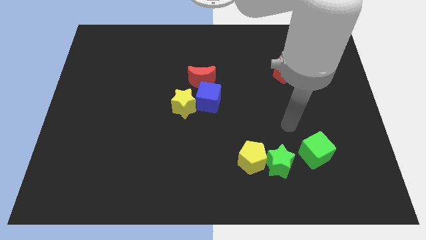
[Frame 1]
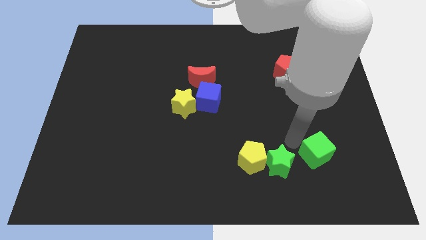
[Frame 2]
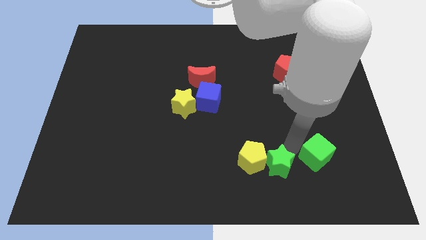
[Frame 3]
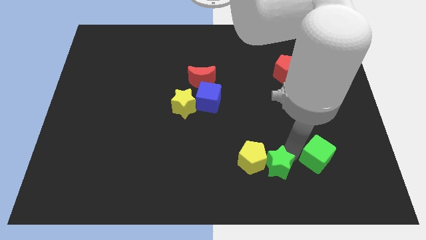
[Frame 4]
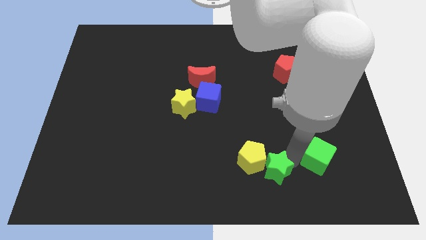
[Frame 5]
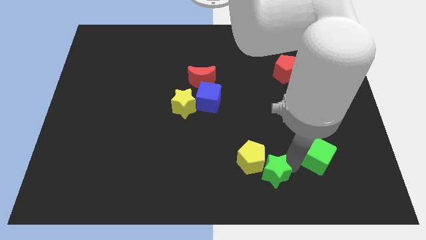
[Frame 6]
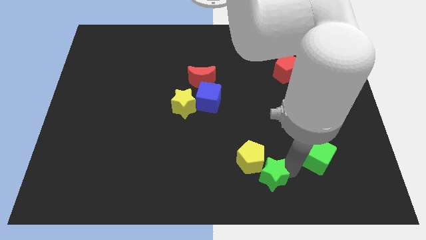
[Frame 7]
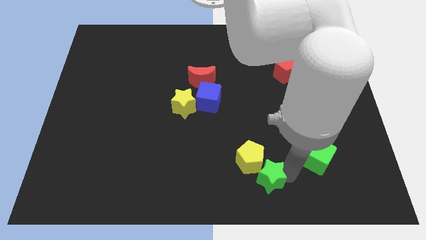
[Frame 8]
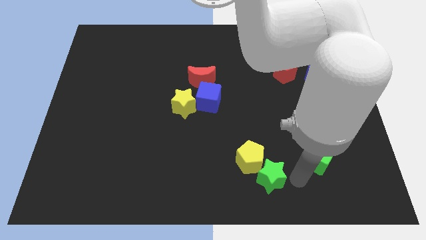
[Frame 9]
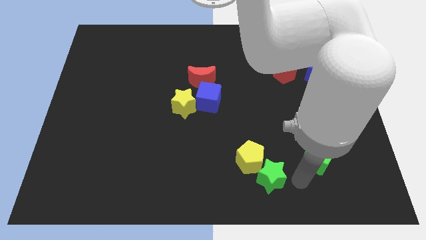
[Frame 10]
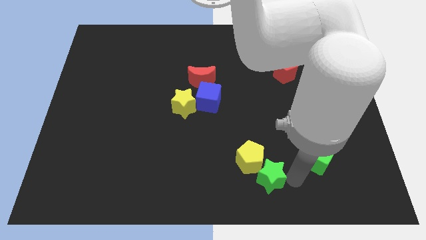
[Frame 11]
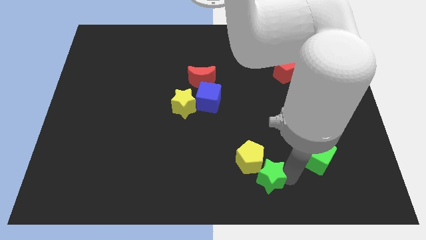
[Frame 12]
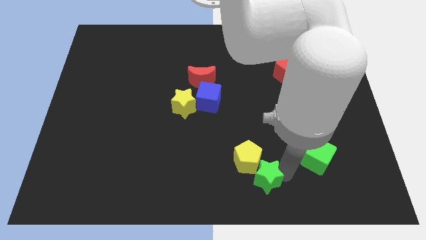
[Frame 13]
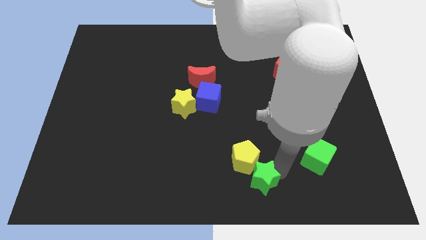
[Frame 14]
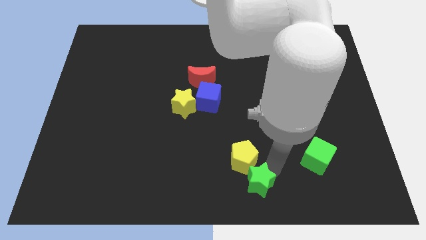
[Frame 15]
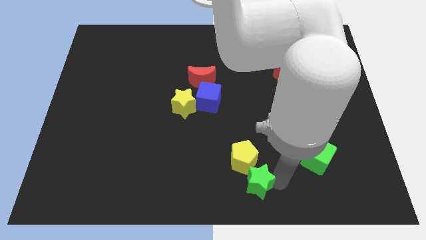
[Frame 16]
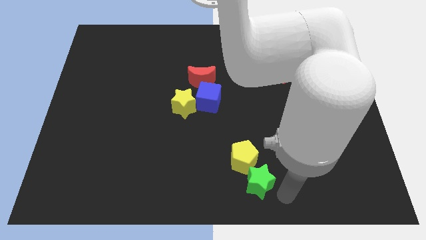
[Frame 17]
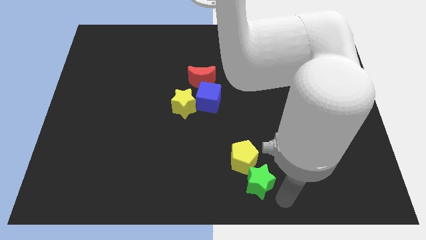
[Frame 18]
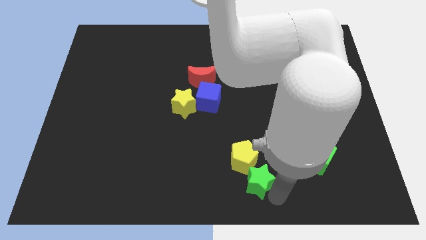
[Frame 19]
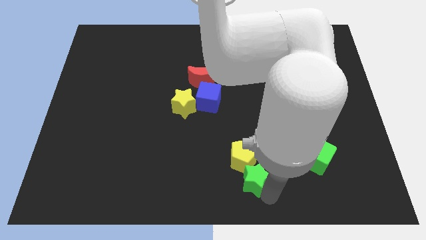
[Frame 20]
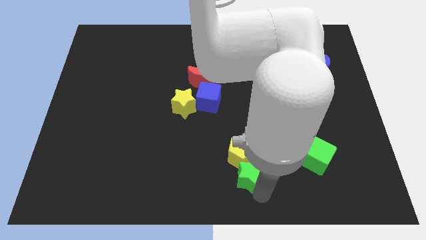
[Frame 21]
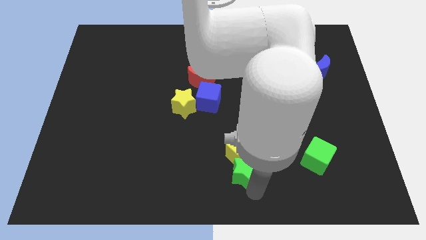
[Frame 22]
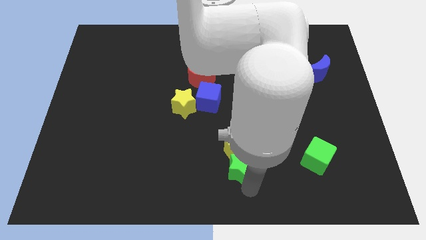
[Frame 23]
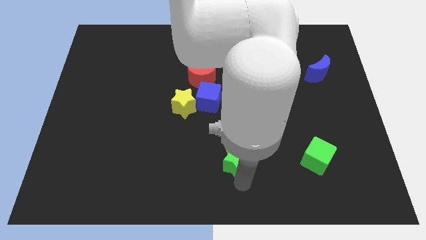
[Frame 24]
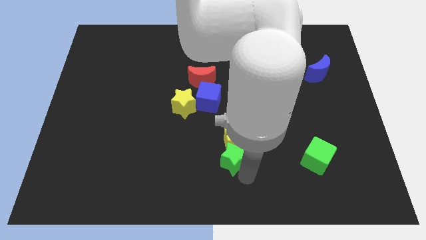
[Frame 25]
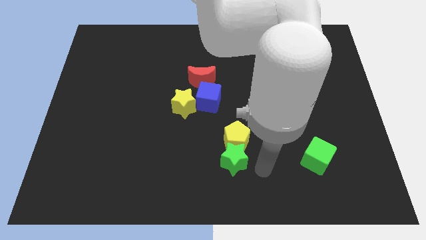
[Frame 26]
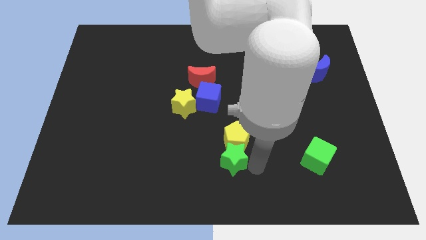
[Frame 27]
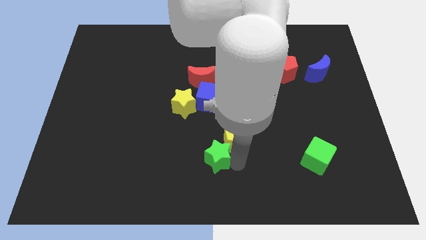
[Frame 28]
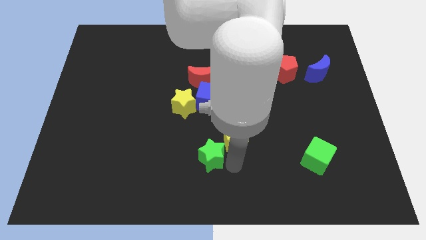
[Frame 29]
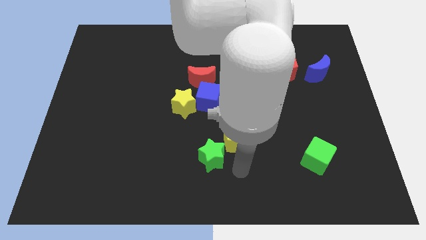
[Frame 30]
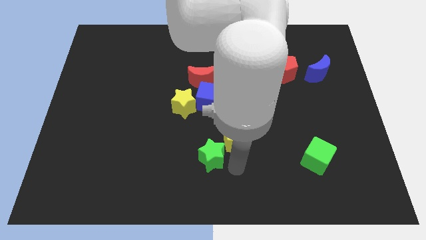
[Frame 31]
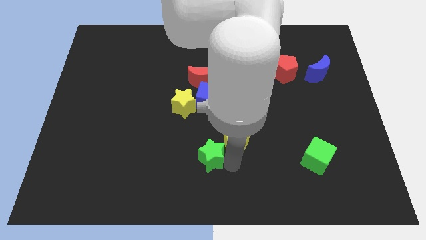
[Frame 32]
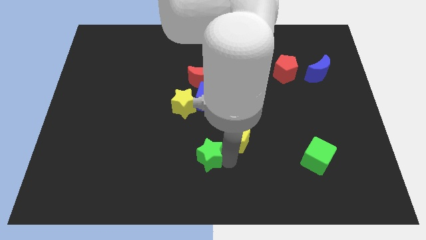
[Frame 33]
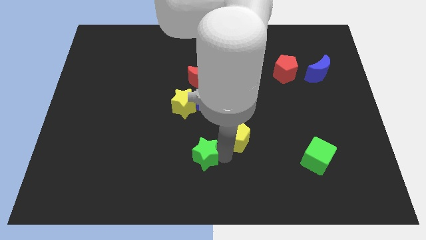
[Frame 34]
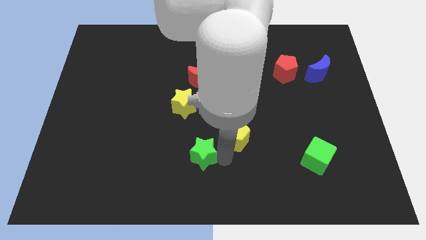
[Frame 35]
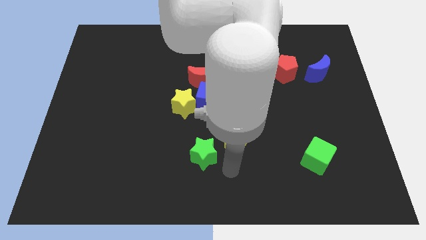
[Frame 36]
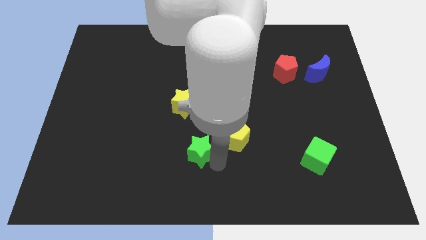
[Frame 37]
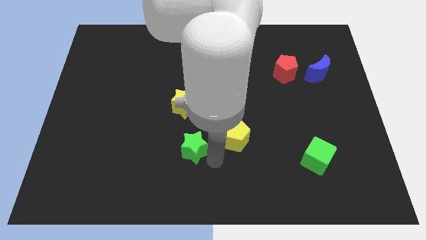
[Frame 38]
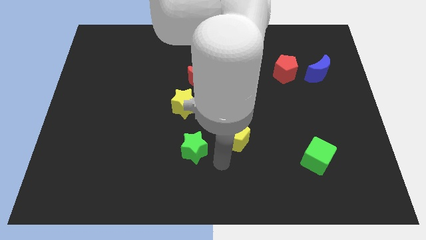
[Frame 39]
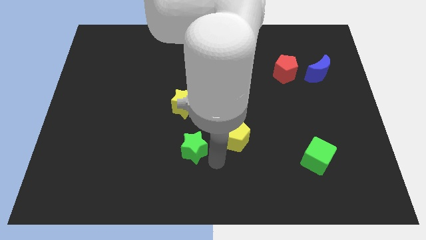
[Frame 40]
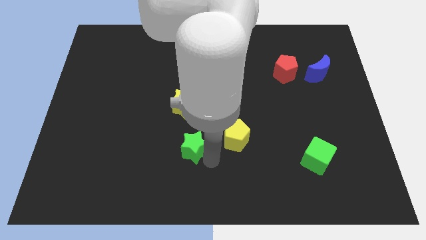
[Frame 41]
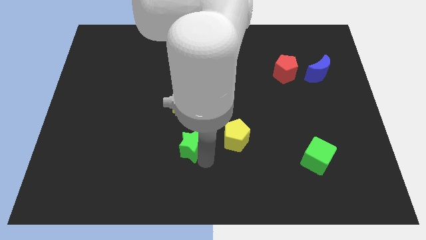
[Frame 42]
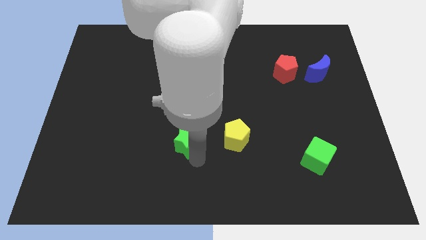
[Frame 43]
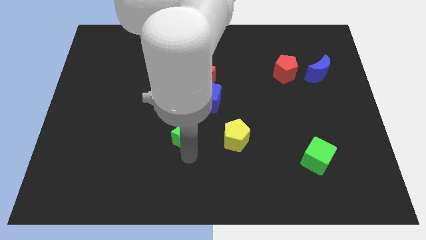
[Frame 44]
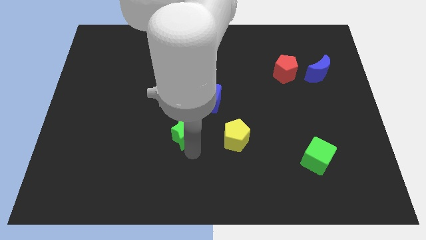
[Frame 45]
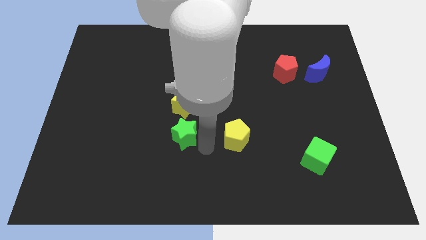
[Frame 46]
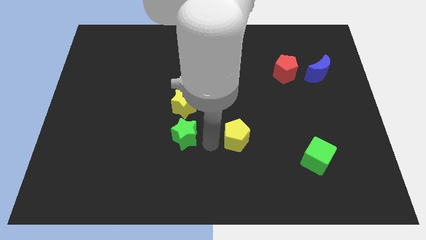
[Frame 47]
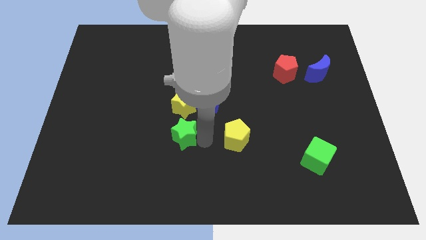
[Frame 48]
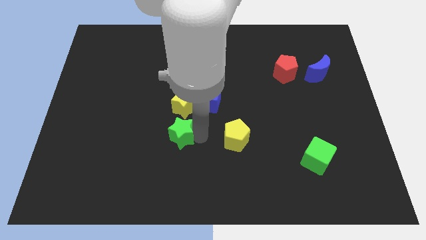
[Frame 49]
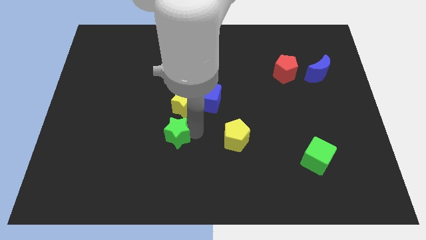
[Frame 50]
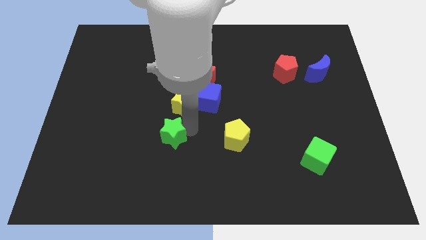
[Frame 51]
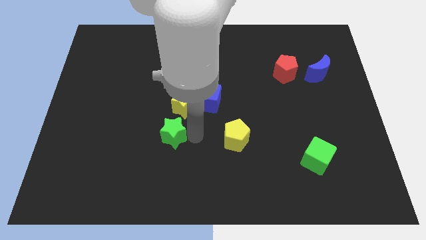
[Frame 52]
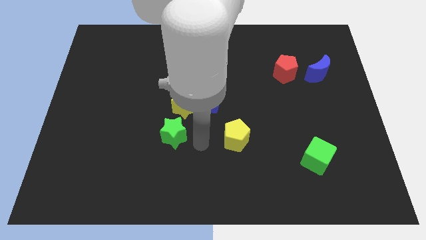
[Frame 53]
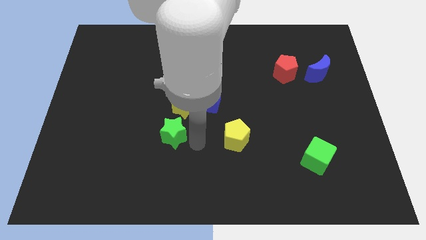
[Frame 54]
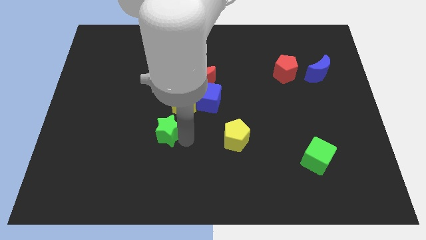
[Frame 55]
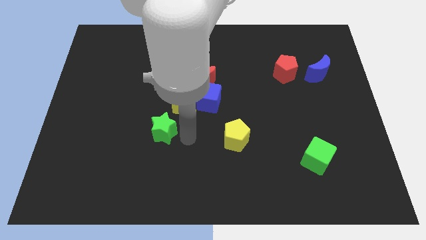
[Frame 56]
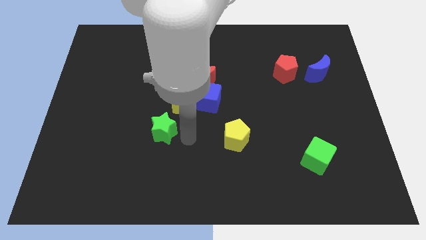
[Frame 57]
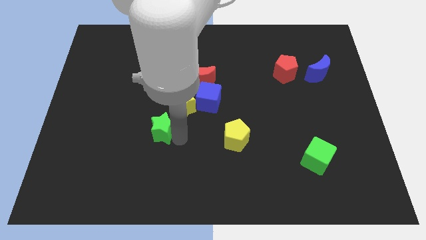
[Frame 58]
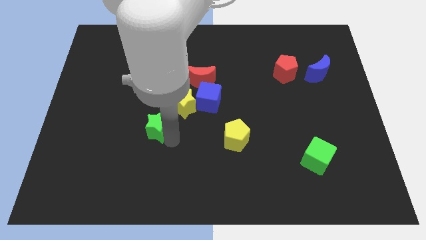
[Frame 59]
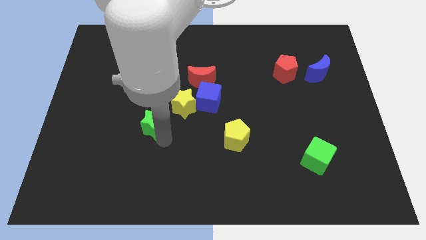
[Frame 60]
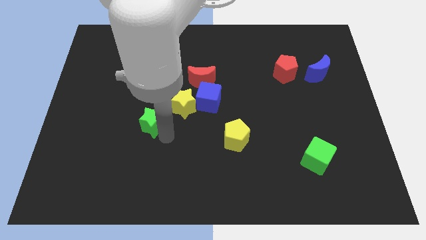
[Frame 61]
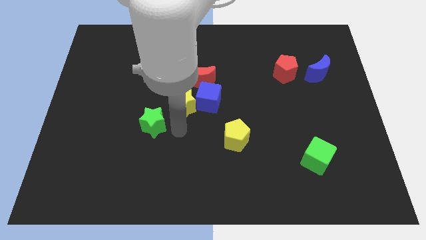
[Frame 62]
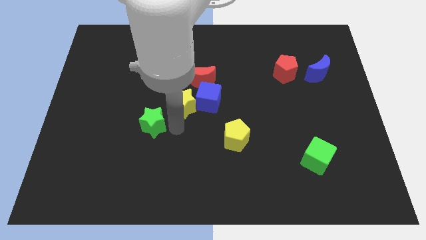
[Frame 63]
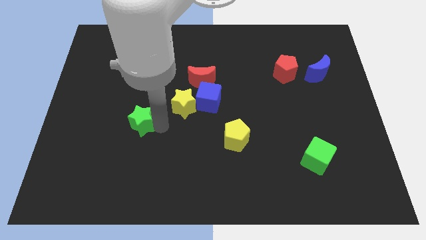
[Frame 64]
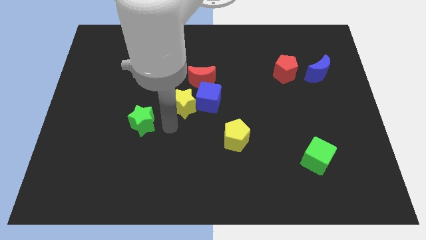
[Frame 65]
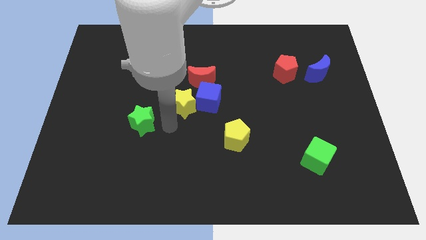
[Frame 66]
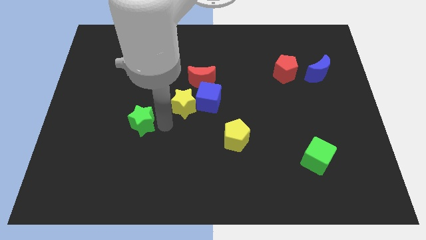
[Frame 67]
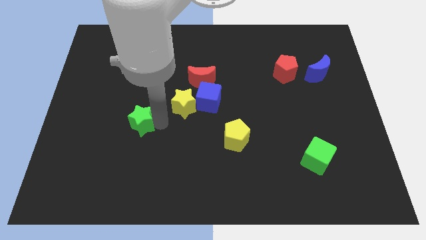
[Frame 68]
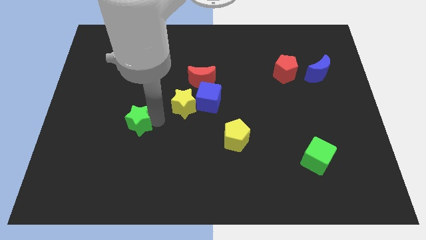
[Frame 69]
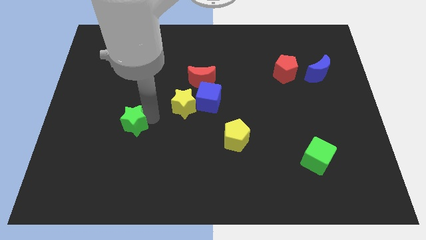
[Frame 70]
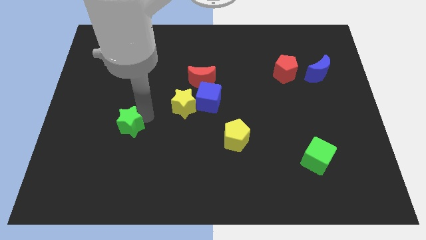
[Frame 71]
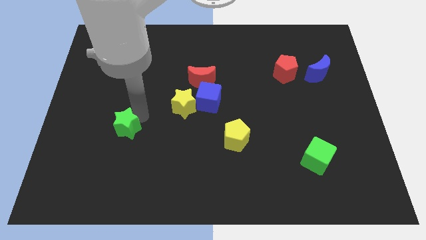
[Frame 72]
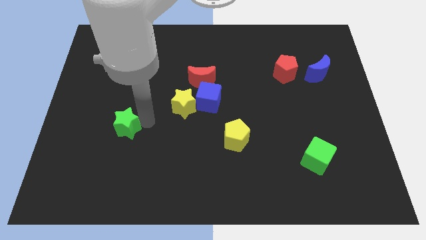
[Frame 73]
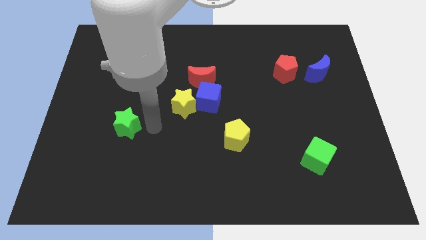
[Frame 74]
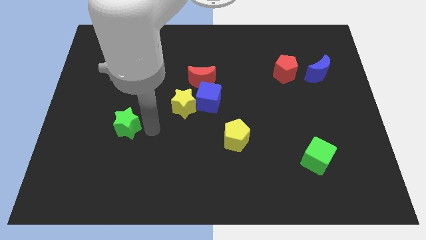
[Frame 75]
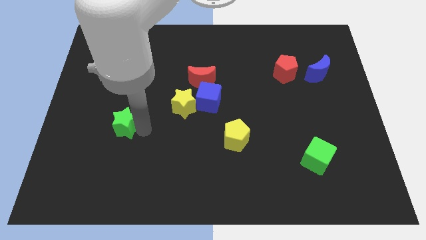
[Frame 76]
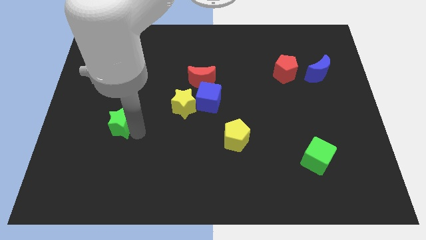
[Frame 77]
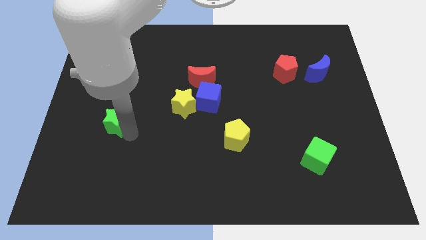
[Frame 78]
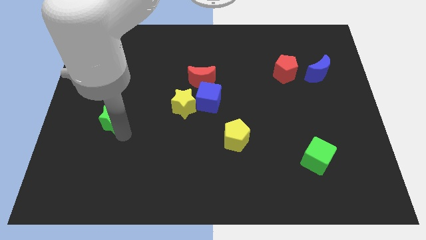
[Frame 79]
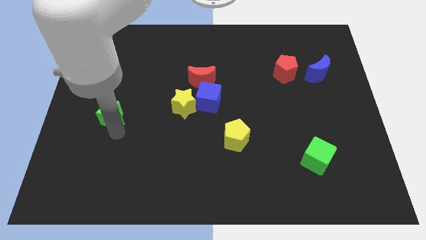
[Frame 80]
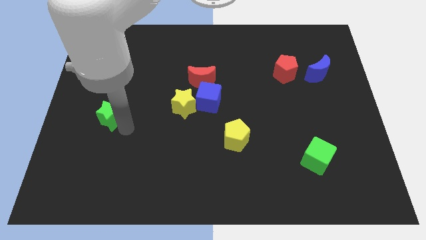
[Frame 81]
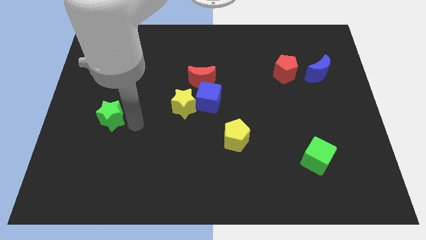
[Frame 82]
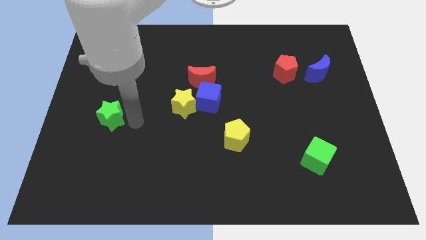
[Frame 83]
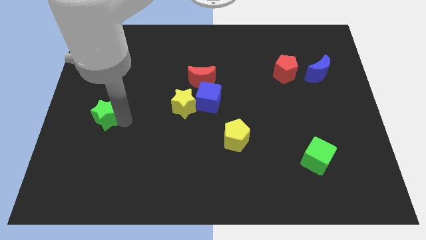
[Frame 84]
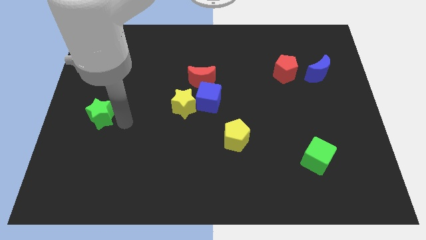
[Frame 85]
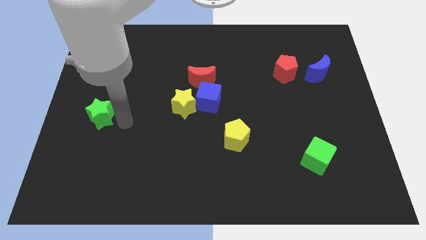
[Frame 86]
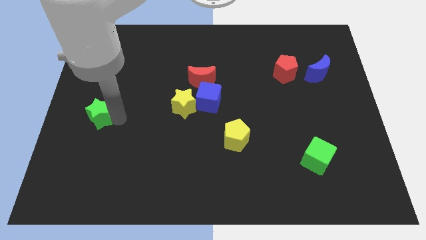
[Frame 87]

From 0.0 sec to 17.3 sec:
slide the green star to the left side
